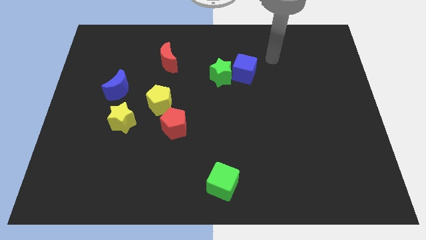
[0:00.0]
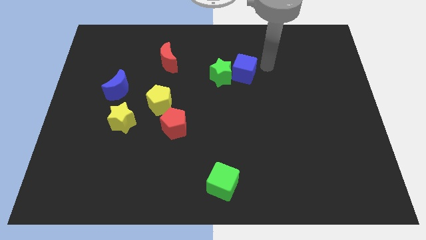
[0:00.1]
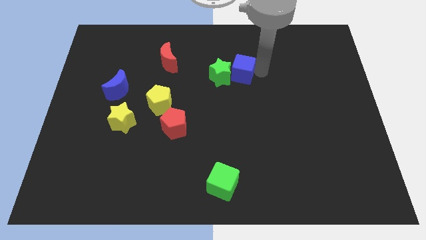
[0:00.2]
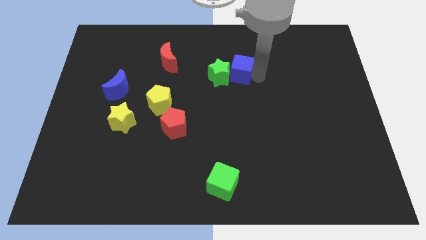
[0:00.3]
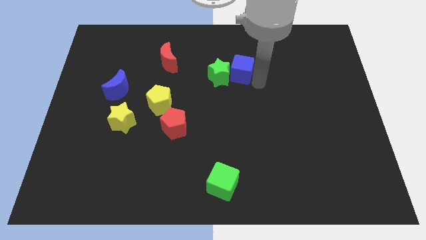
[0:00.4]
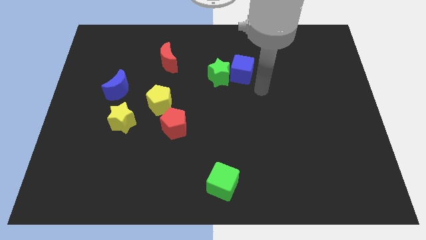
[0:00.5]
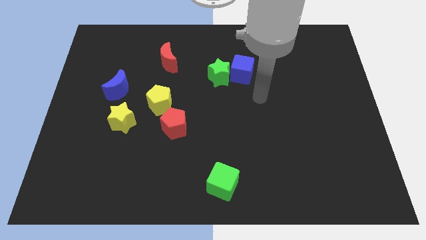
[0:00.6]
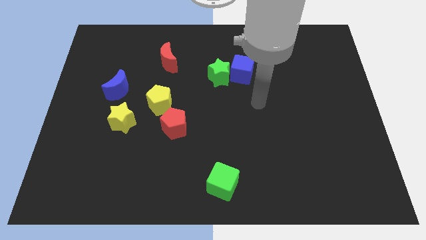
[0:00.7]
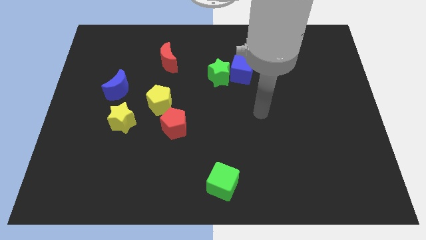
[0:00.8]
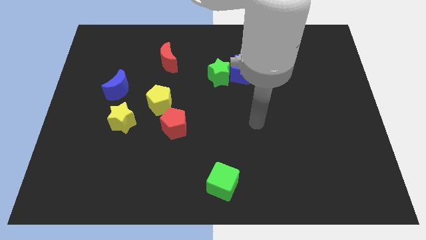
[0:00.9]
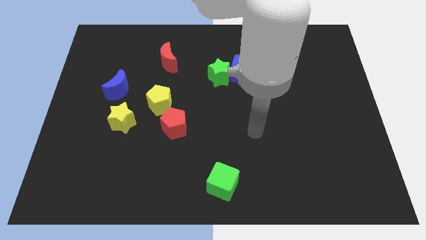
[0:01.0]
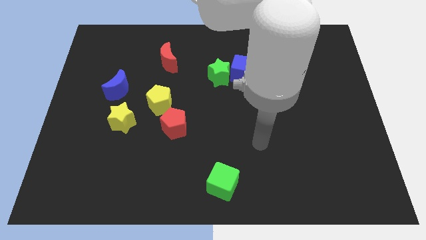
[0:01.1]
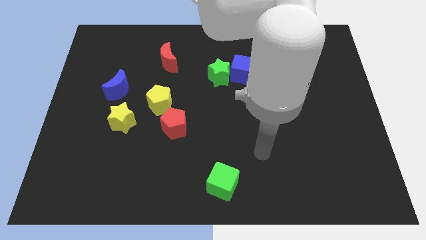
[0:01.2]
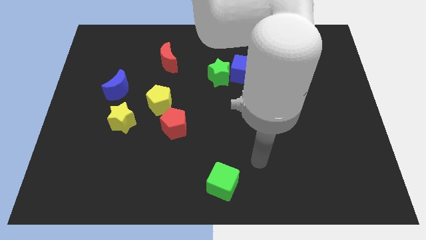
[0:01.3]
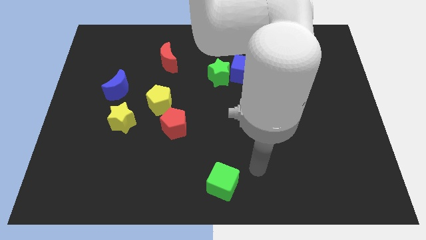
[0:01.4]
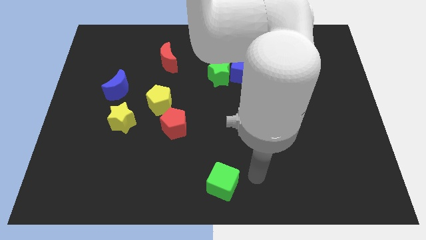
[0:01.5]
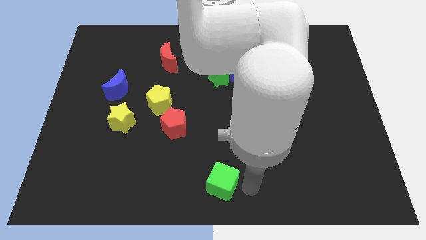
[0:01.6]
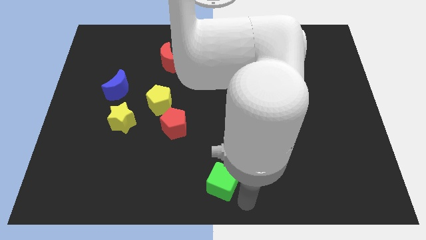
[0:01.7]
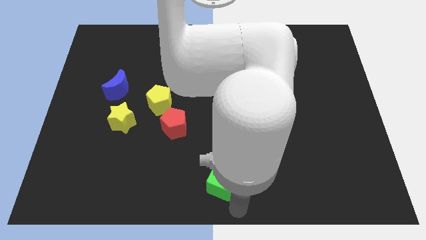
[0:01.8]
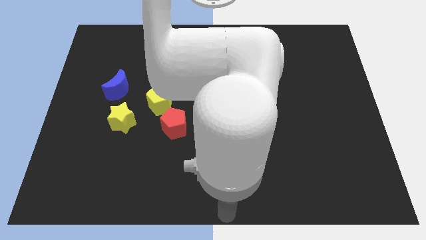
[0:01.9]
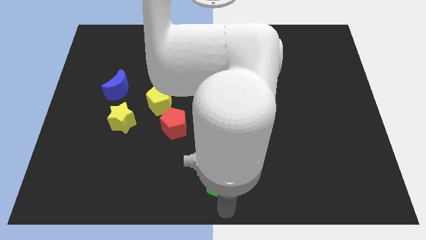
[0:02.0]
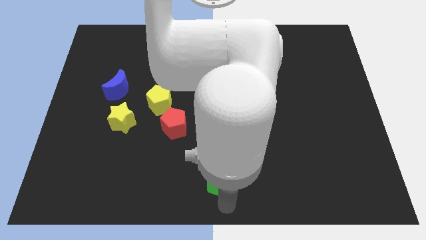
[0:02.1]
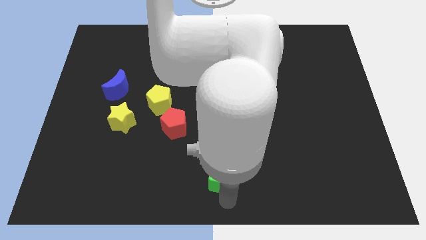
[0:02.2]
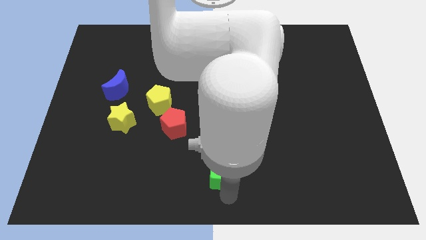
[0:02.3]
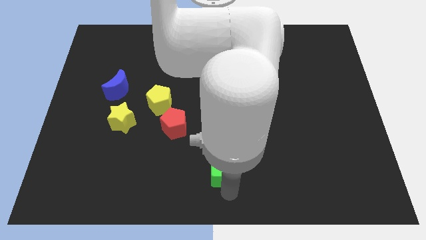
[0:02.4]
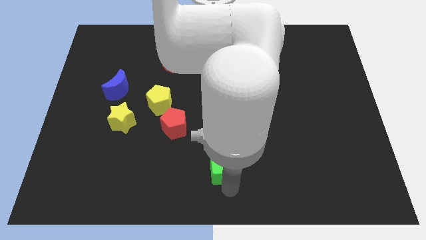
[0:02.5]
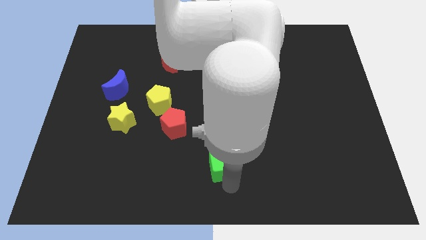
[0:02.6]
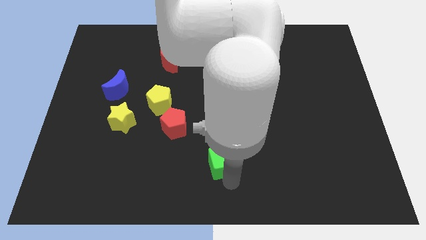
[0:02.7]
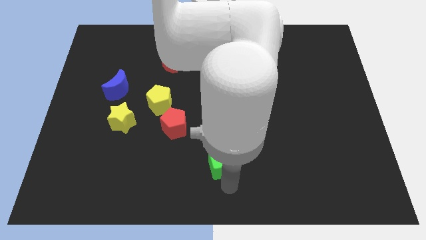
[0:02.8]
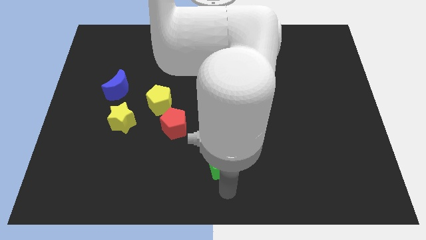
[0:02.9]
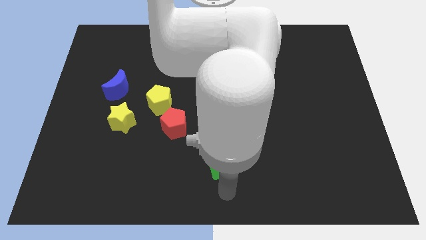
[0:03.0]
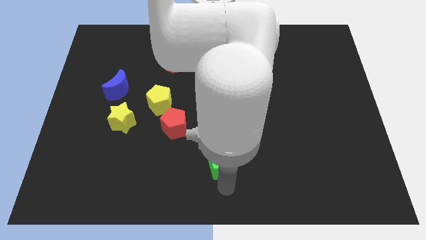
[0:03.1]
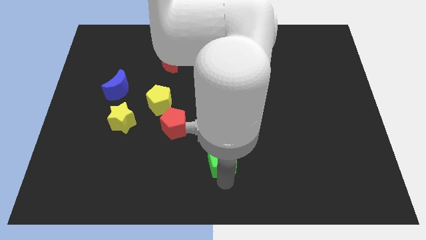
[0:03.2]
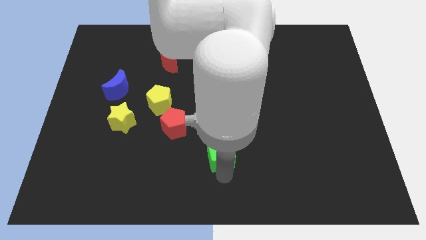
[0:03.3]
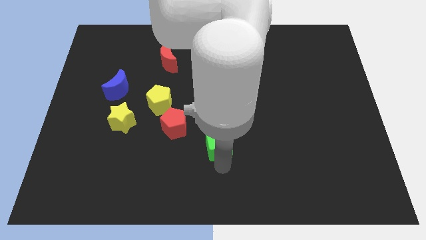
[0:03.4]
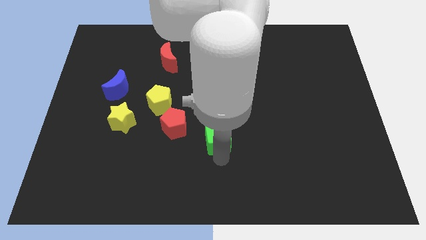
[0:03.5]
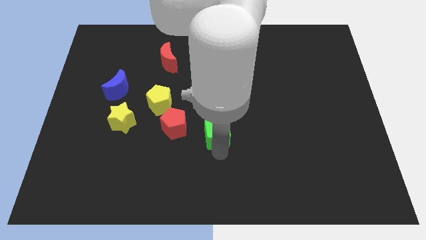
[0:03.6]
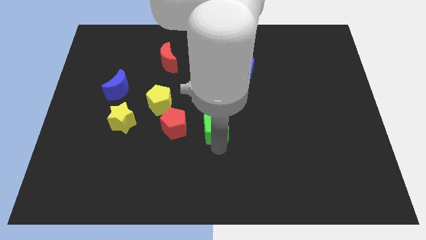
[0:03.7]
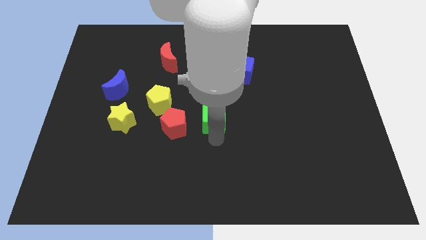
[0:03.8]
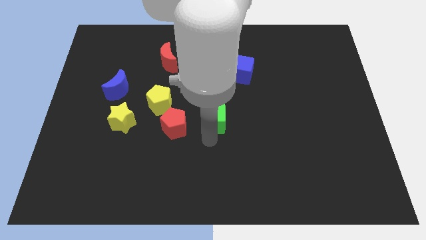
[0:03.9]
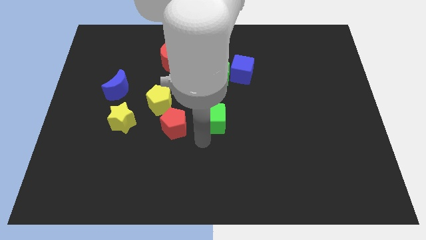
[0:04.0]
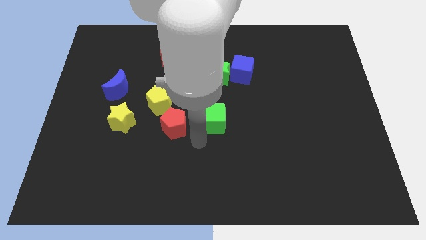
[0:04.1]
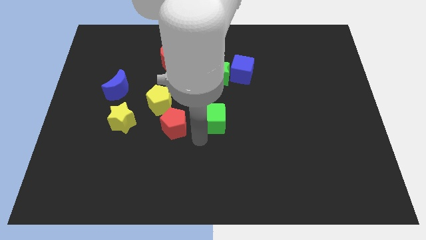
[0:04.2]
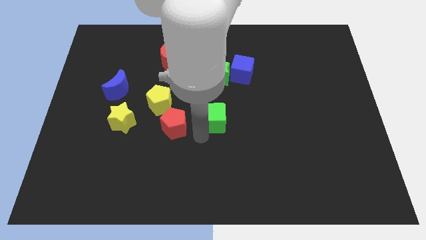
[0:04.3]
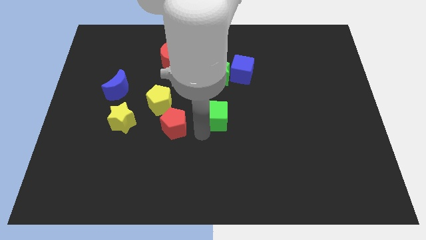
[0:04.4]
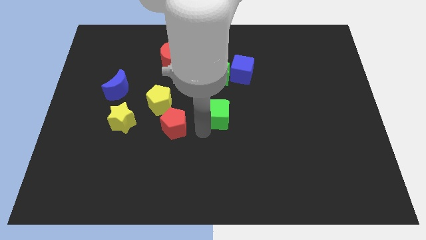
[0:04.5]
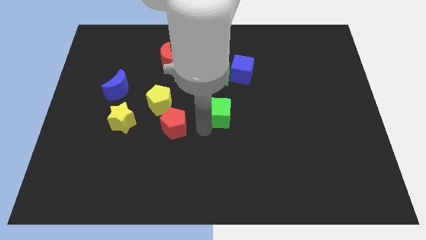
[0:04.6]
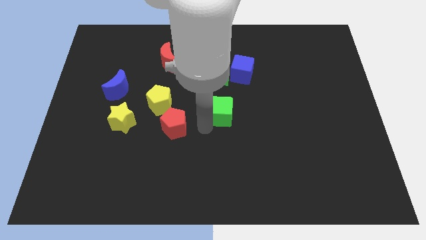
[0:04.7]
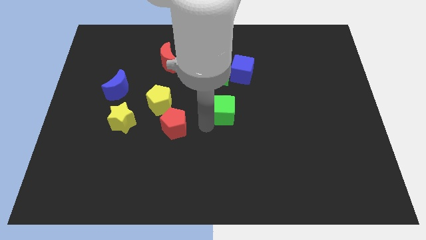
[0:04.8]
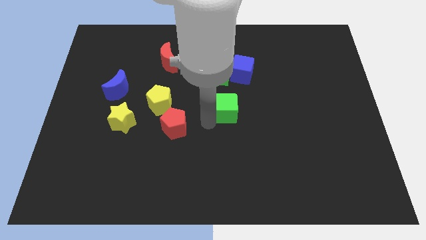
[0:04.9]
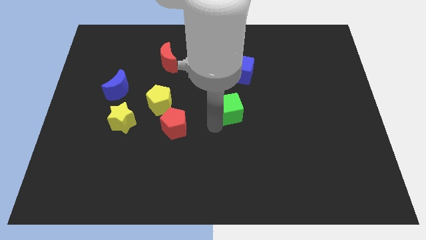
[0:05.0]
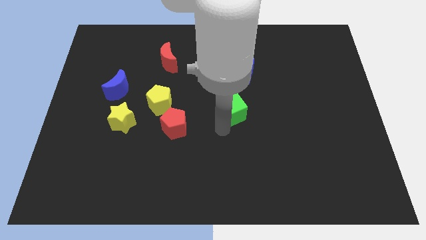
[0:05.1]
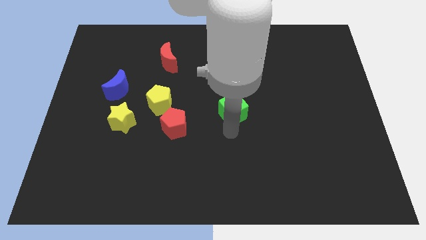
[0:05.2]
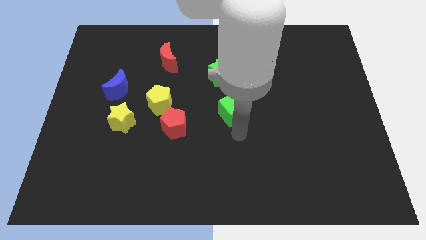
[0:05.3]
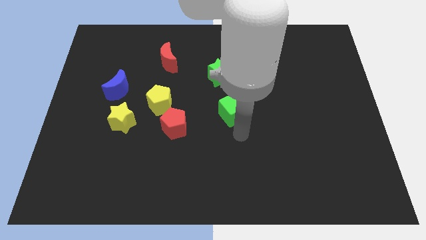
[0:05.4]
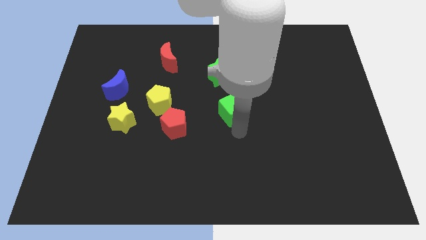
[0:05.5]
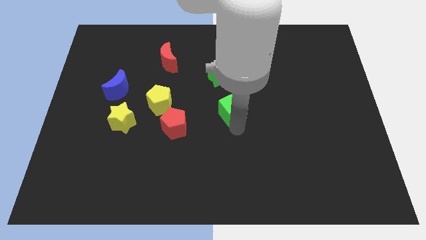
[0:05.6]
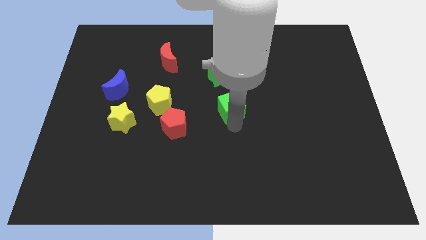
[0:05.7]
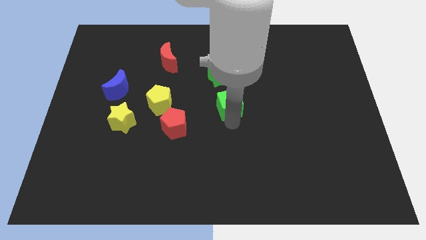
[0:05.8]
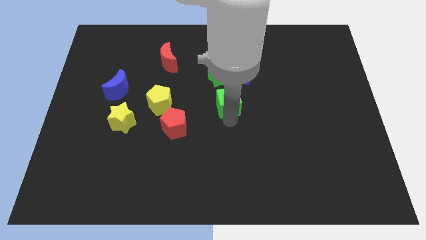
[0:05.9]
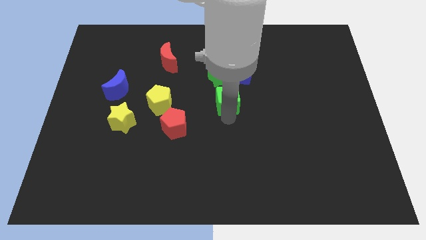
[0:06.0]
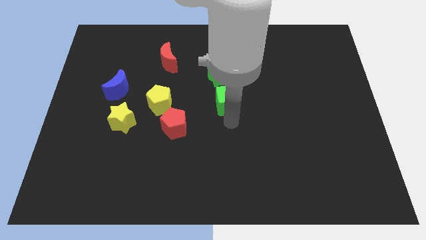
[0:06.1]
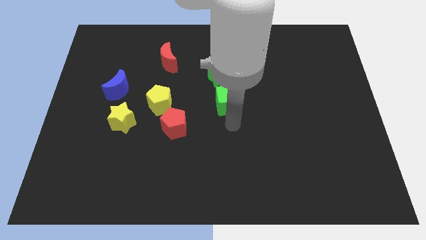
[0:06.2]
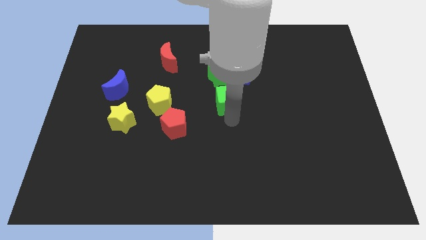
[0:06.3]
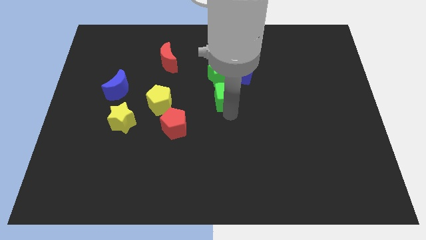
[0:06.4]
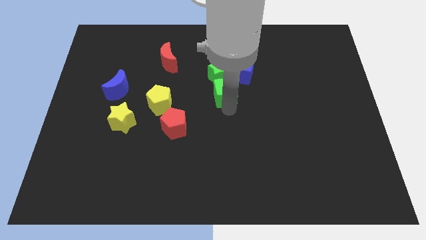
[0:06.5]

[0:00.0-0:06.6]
slide the green cube to the green star

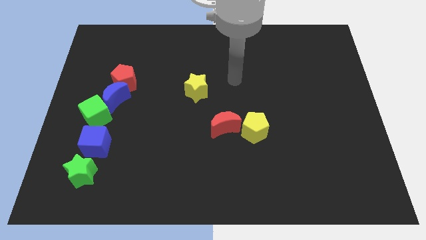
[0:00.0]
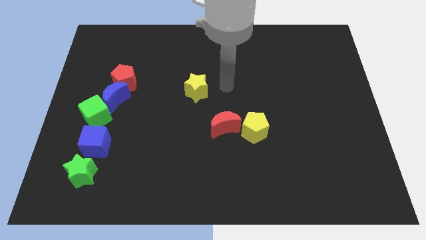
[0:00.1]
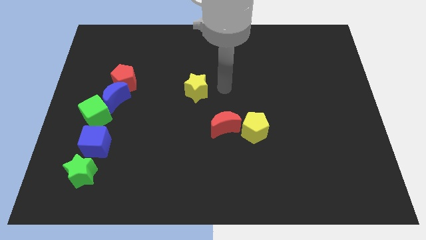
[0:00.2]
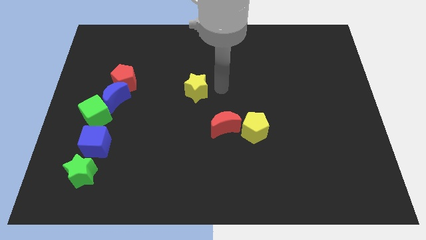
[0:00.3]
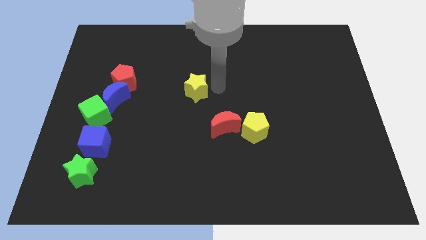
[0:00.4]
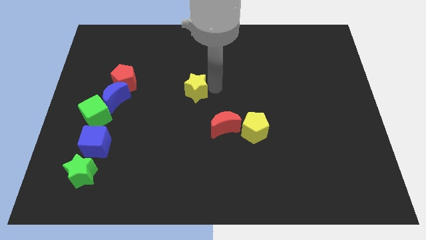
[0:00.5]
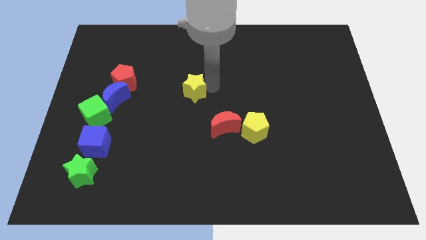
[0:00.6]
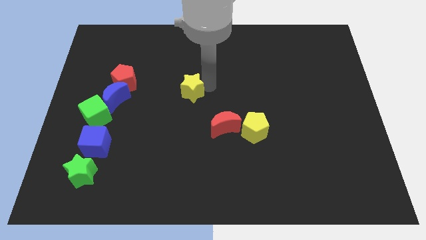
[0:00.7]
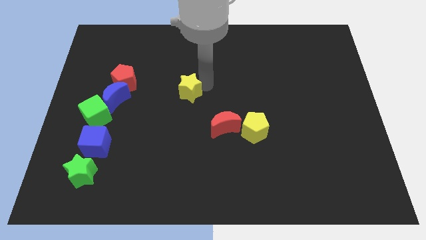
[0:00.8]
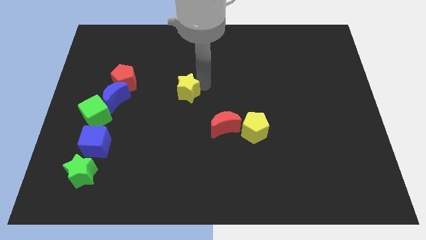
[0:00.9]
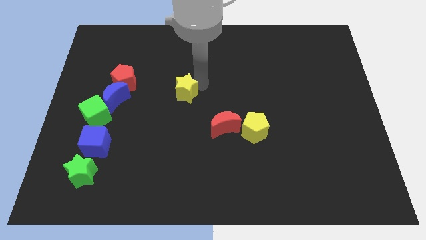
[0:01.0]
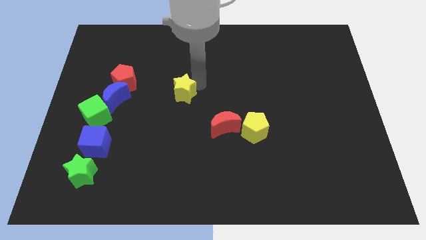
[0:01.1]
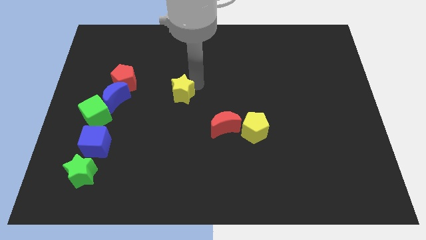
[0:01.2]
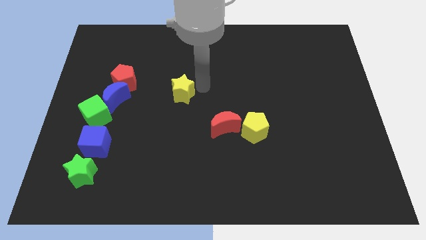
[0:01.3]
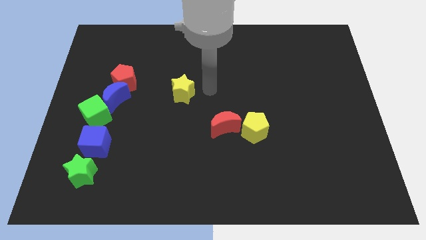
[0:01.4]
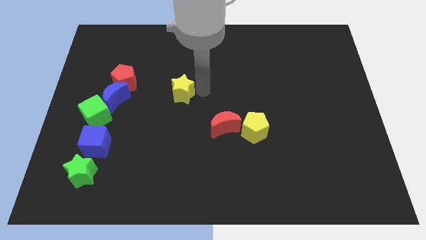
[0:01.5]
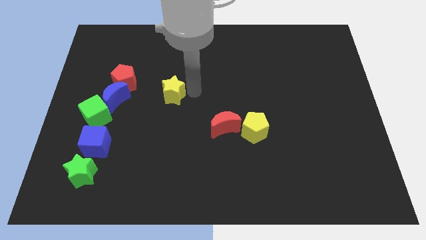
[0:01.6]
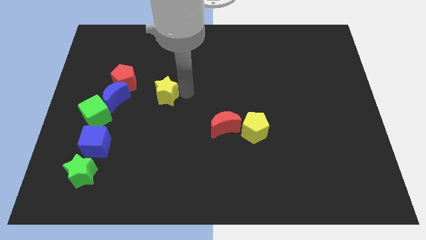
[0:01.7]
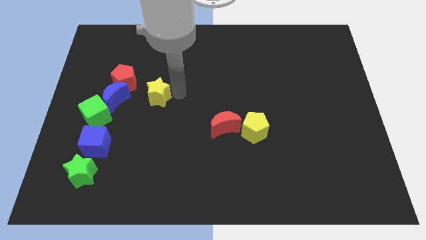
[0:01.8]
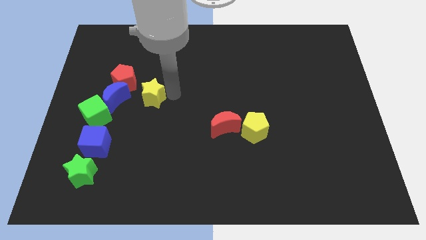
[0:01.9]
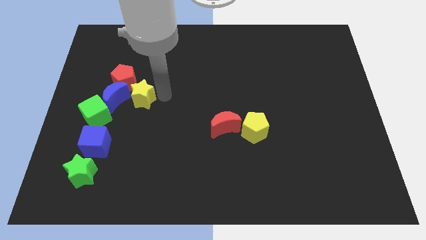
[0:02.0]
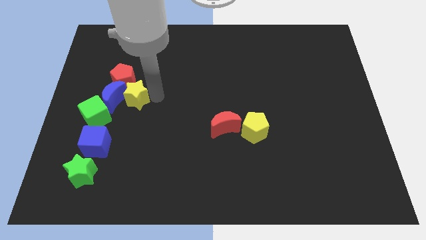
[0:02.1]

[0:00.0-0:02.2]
move the yellow star towards the blue moon
